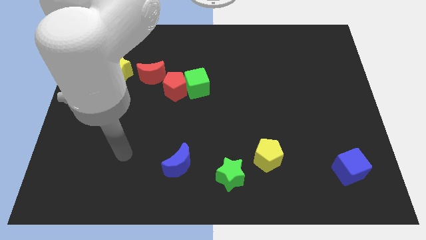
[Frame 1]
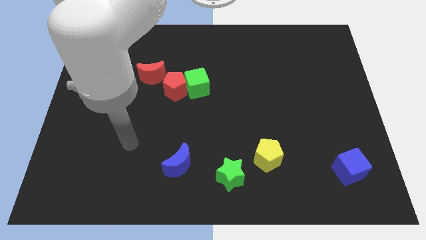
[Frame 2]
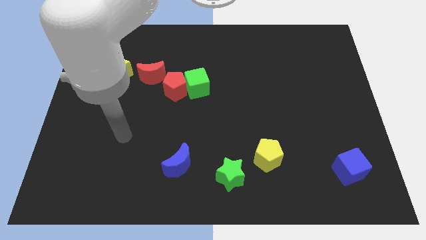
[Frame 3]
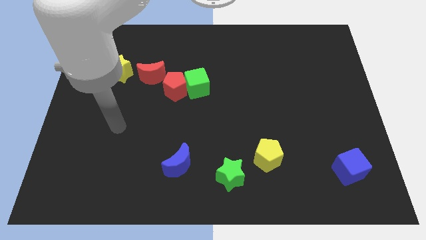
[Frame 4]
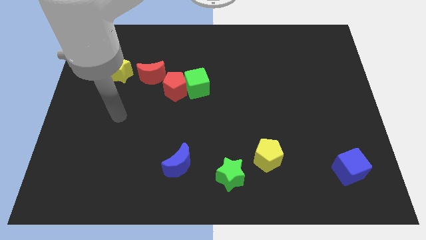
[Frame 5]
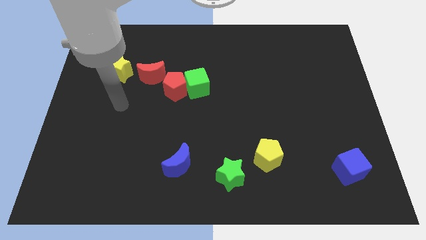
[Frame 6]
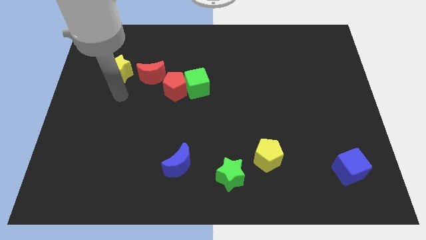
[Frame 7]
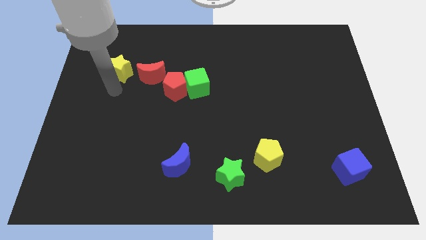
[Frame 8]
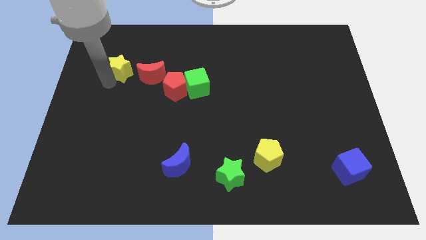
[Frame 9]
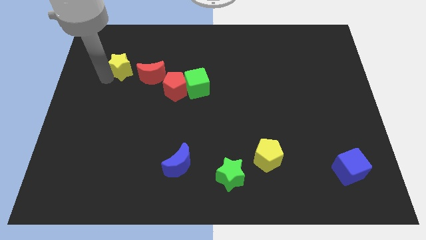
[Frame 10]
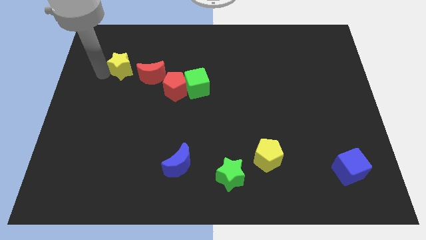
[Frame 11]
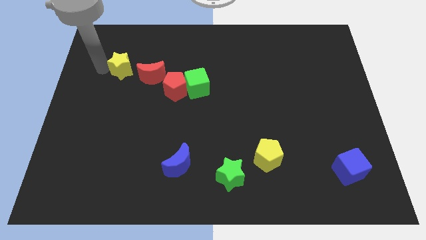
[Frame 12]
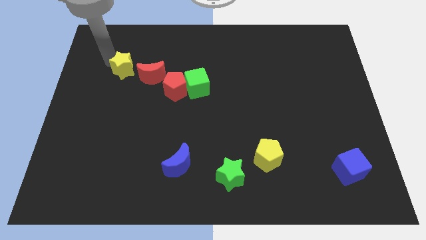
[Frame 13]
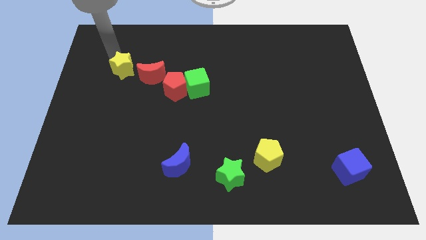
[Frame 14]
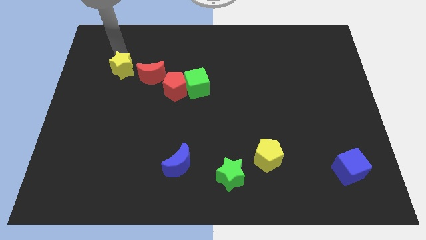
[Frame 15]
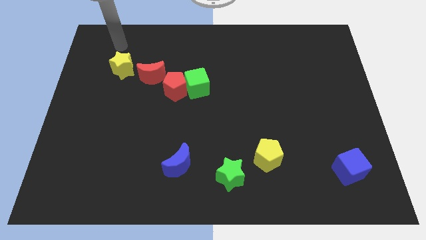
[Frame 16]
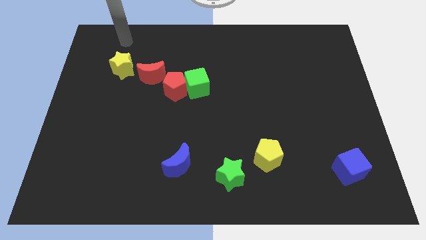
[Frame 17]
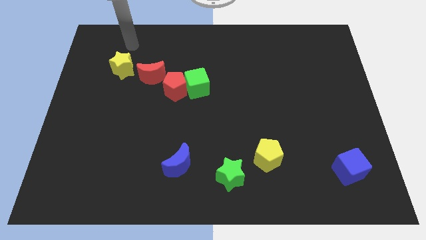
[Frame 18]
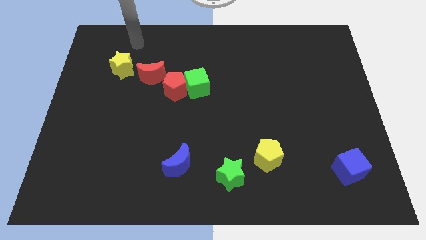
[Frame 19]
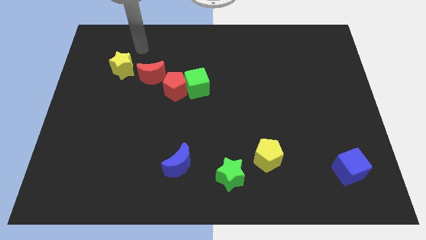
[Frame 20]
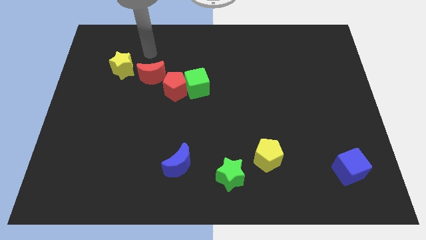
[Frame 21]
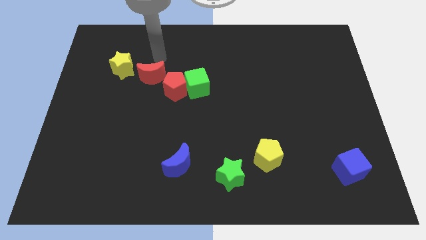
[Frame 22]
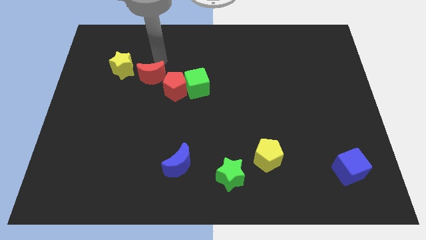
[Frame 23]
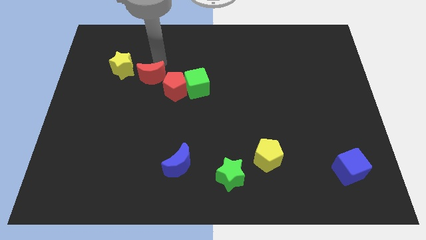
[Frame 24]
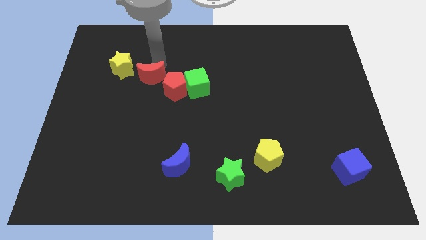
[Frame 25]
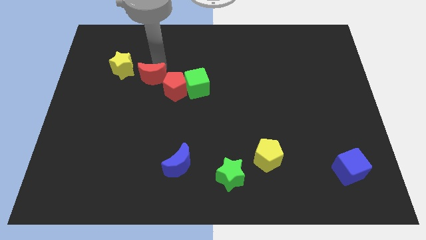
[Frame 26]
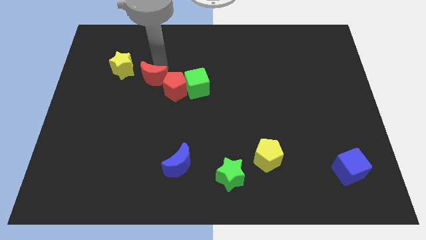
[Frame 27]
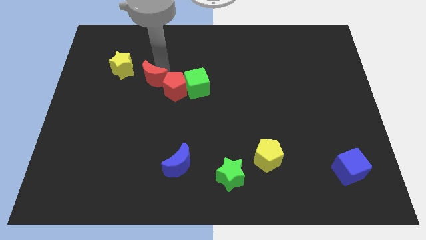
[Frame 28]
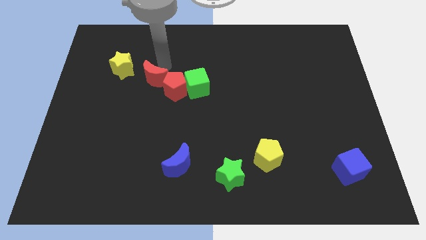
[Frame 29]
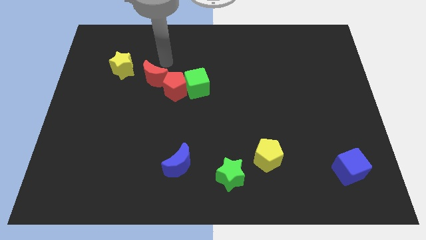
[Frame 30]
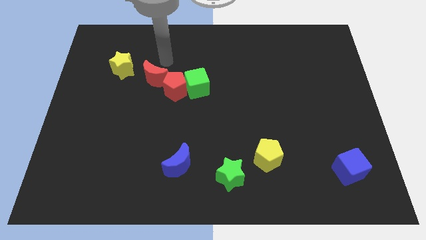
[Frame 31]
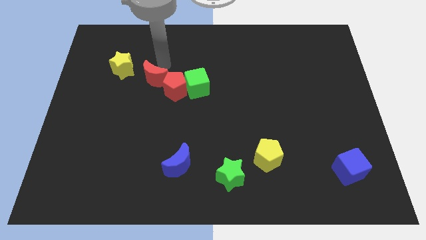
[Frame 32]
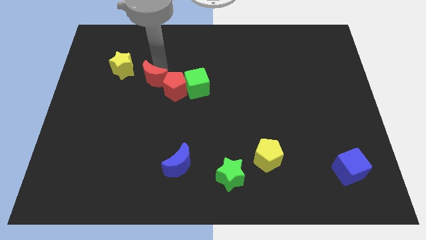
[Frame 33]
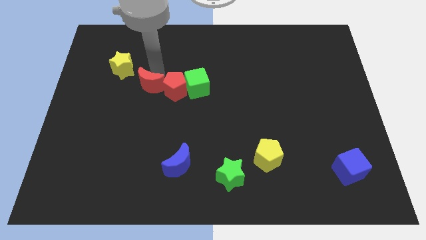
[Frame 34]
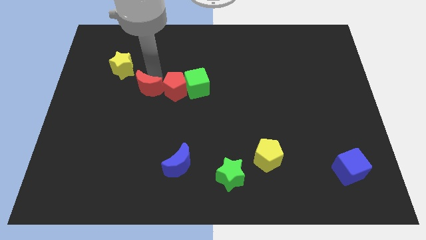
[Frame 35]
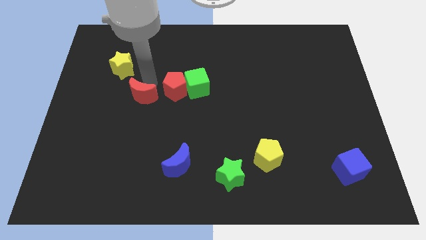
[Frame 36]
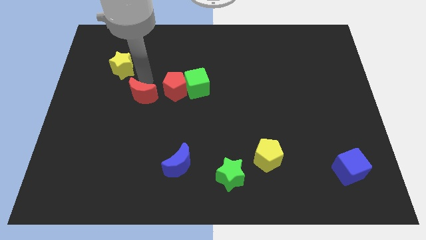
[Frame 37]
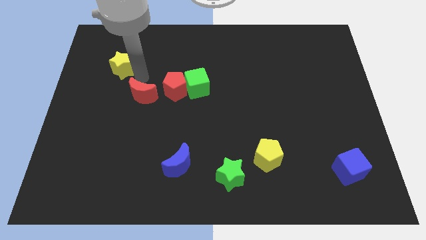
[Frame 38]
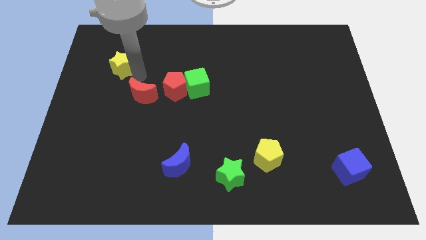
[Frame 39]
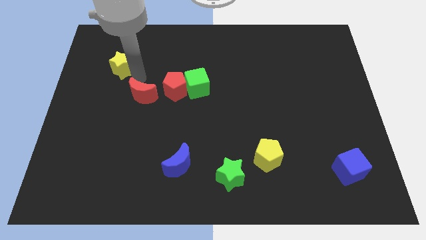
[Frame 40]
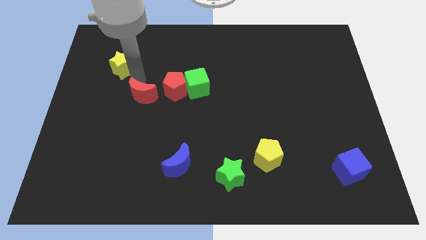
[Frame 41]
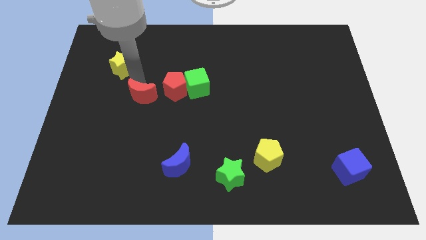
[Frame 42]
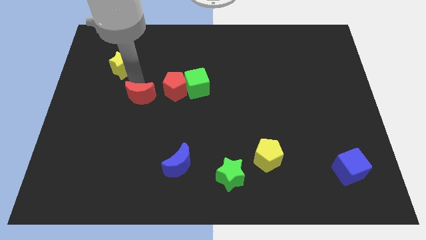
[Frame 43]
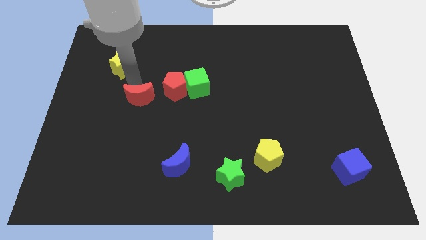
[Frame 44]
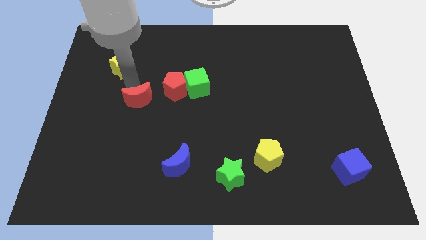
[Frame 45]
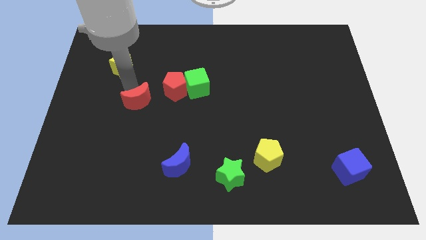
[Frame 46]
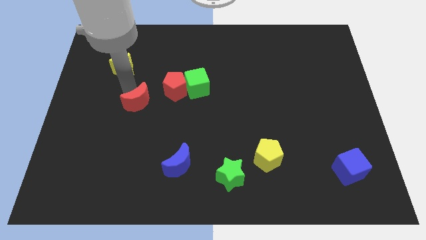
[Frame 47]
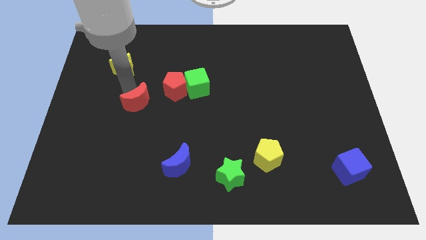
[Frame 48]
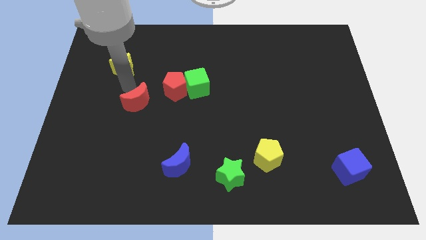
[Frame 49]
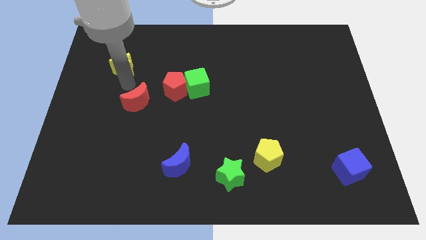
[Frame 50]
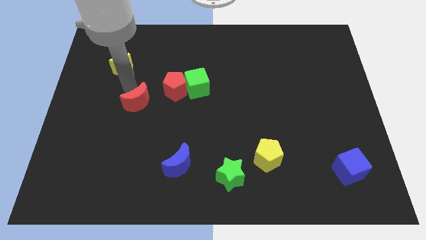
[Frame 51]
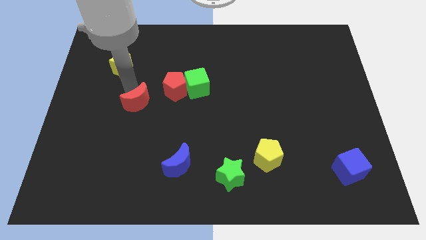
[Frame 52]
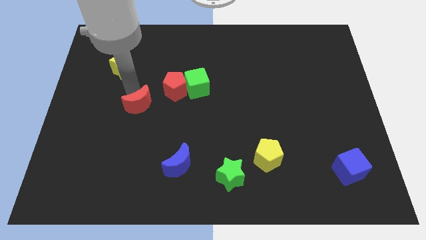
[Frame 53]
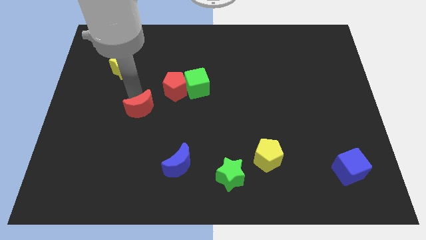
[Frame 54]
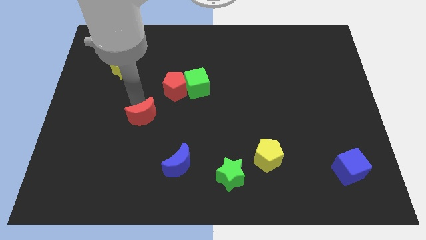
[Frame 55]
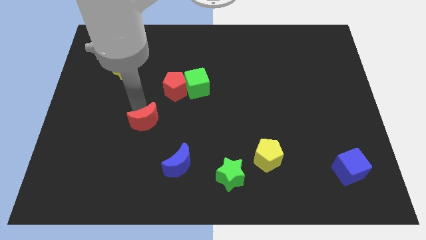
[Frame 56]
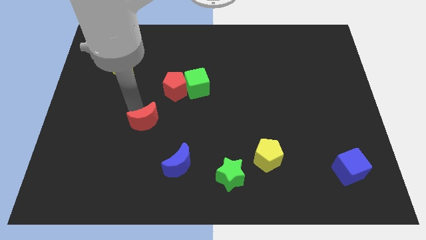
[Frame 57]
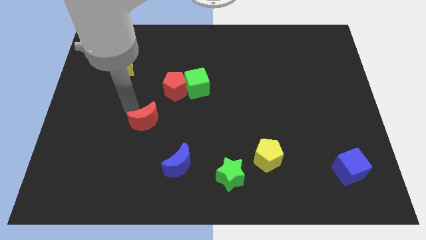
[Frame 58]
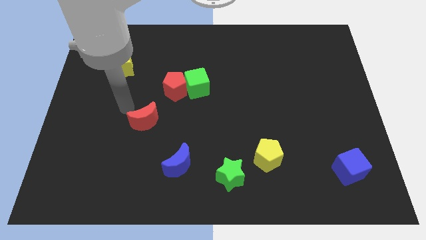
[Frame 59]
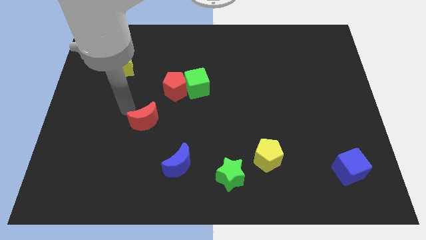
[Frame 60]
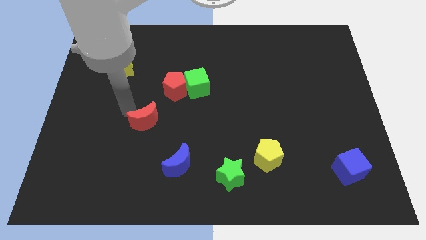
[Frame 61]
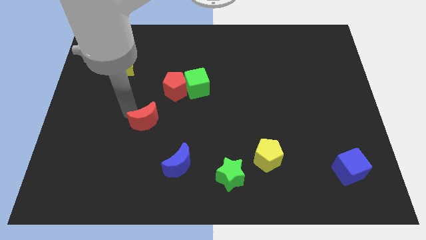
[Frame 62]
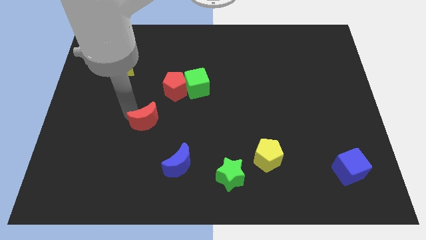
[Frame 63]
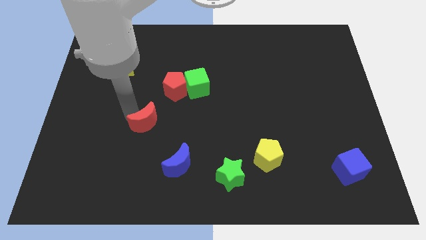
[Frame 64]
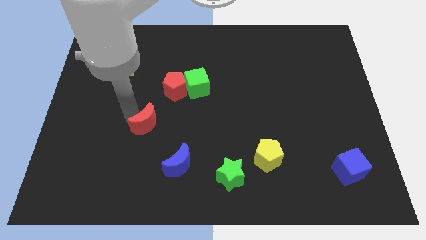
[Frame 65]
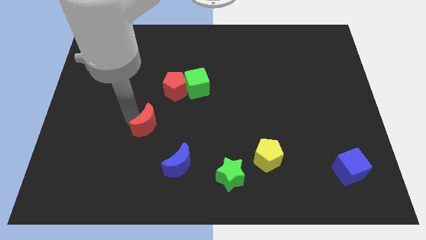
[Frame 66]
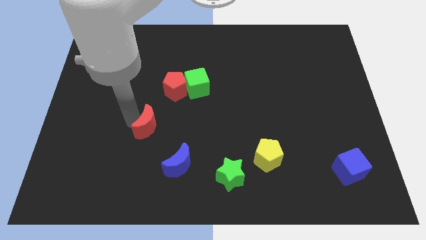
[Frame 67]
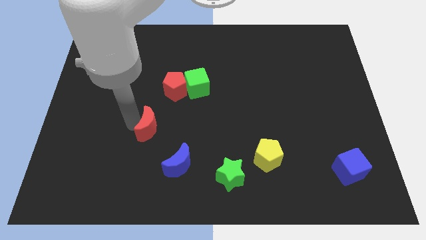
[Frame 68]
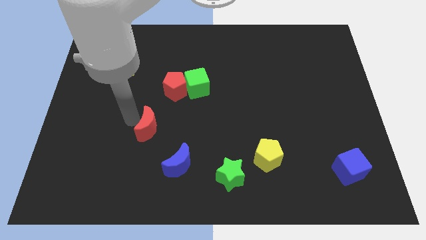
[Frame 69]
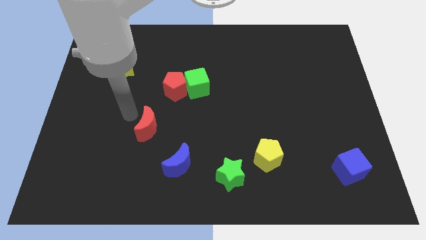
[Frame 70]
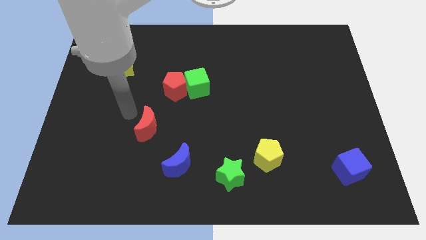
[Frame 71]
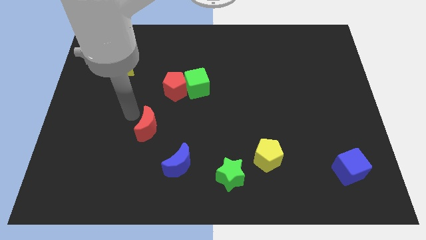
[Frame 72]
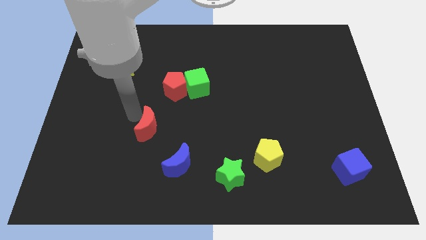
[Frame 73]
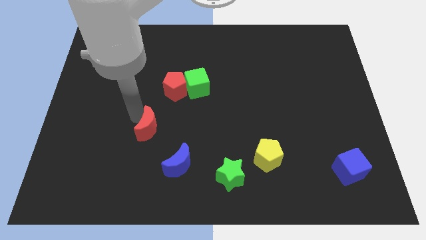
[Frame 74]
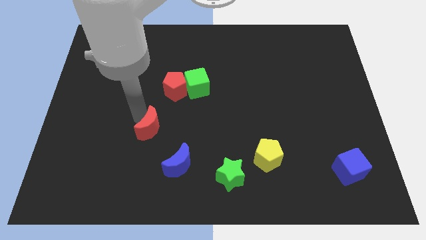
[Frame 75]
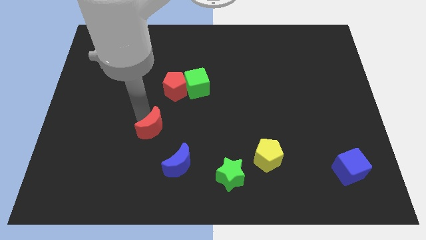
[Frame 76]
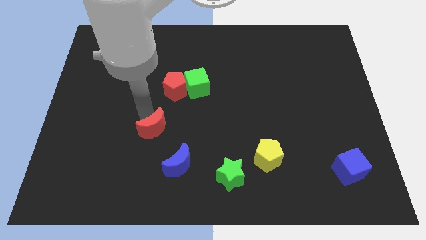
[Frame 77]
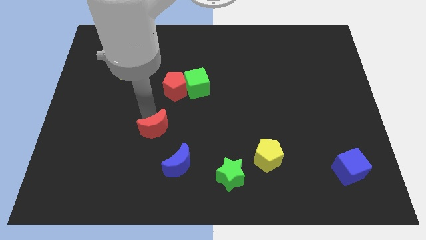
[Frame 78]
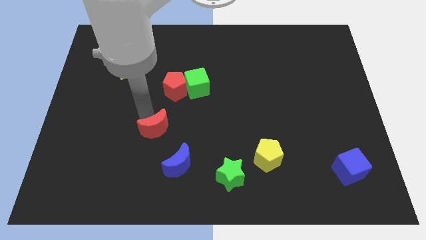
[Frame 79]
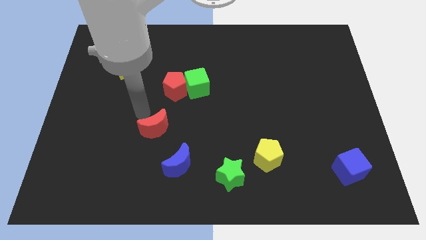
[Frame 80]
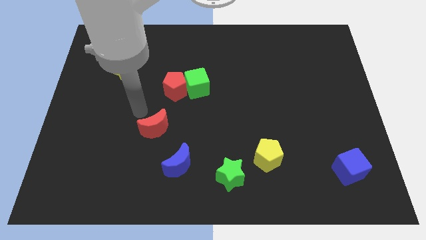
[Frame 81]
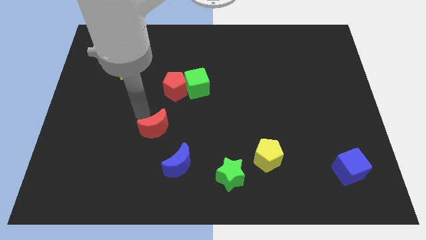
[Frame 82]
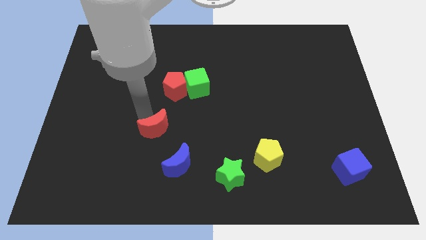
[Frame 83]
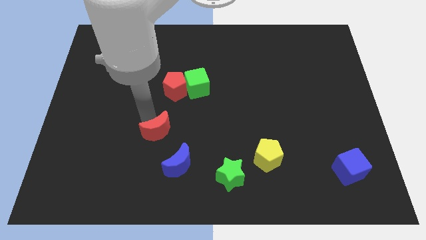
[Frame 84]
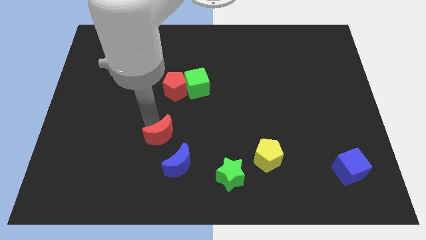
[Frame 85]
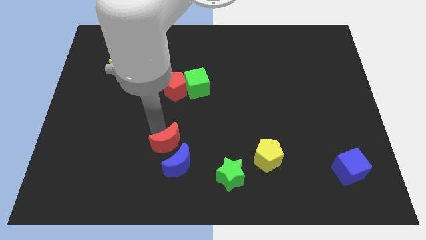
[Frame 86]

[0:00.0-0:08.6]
push the red moon towards the blue moon
